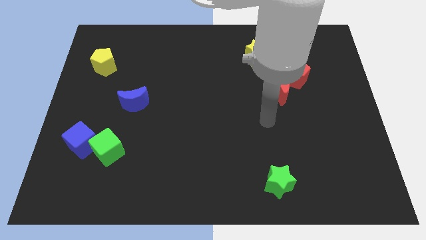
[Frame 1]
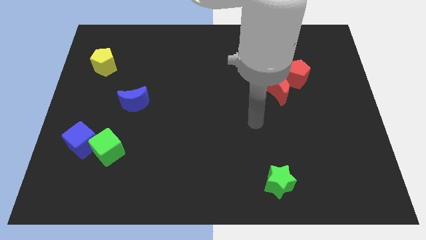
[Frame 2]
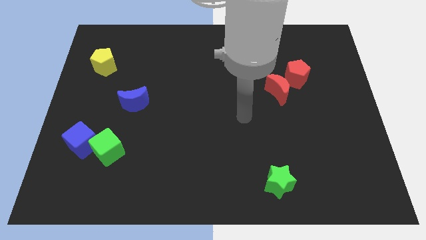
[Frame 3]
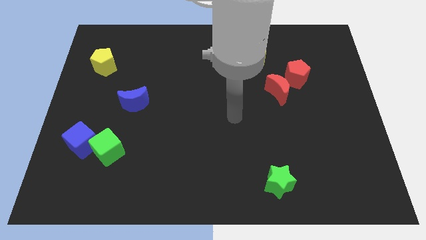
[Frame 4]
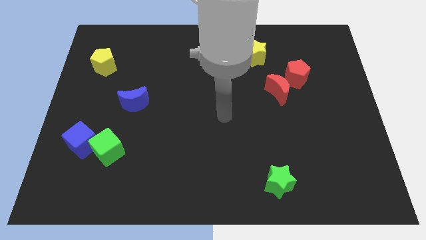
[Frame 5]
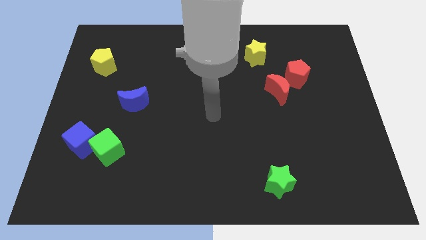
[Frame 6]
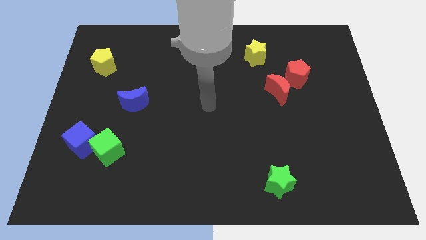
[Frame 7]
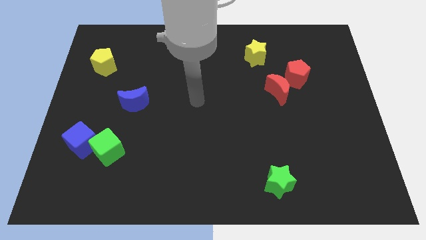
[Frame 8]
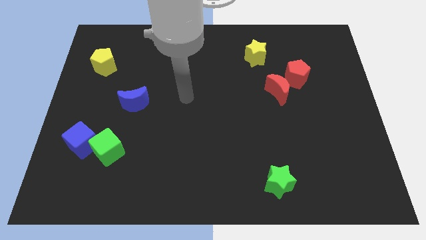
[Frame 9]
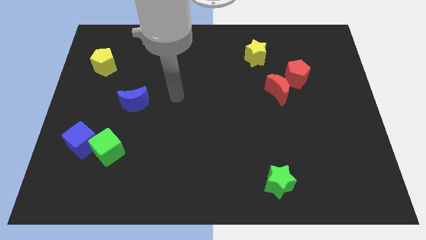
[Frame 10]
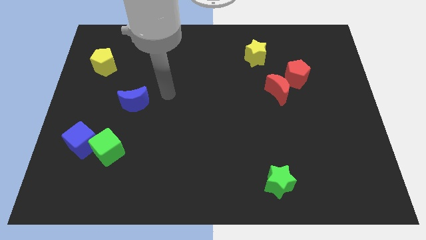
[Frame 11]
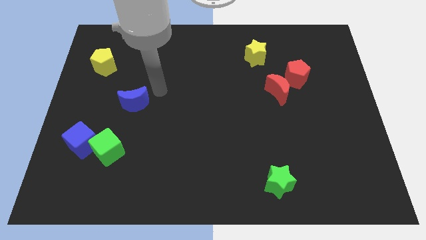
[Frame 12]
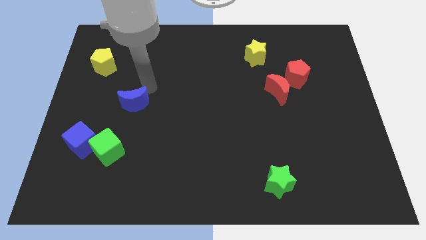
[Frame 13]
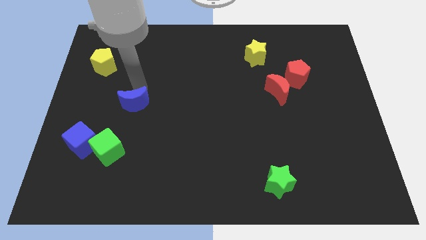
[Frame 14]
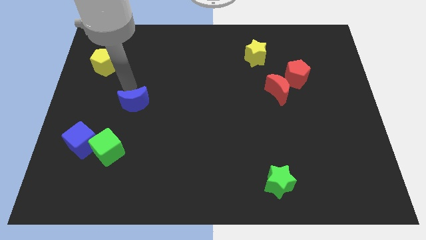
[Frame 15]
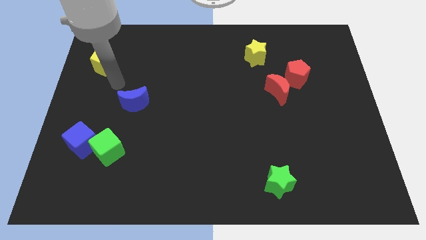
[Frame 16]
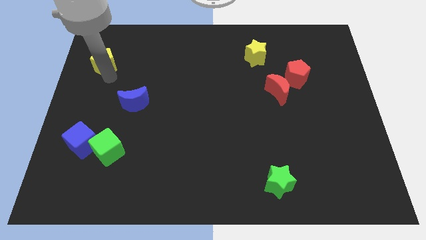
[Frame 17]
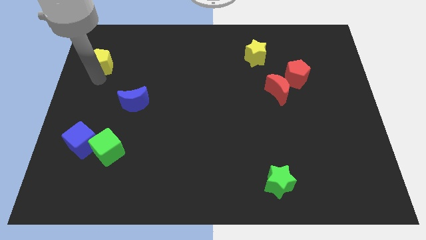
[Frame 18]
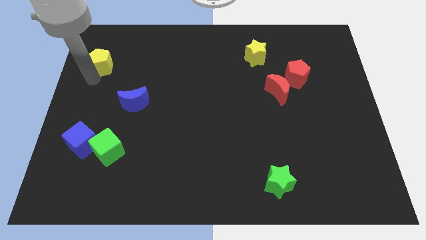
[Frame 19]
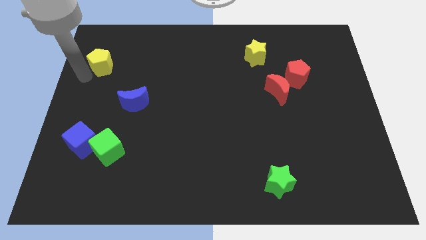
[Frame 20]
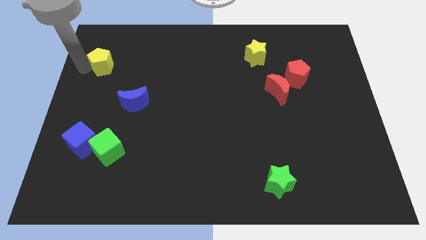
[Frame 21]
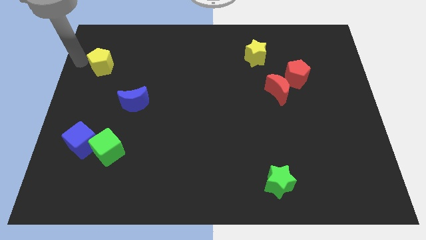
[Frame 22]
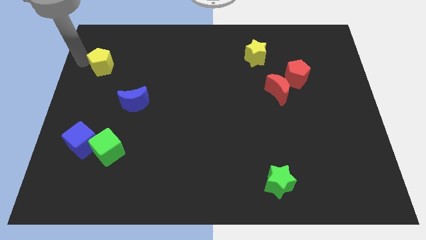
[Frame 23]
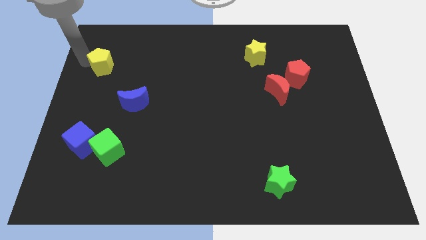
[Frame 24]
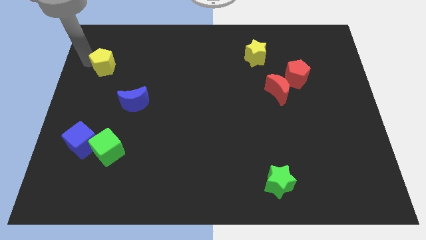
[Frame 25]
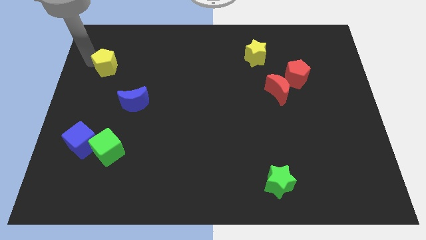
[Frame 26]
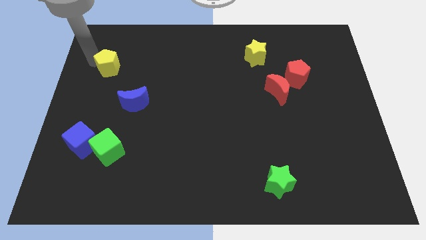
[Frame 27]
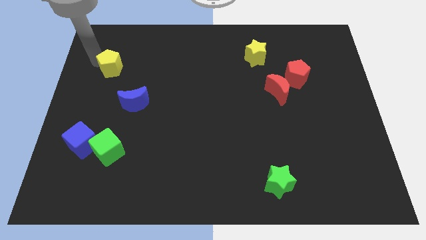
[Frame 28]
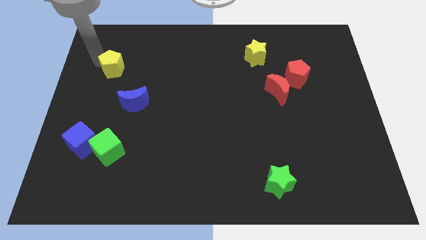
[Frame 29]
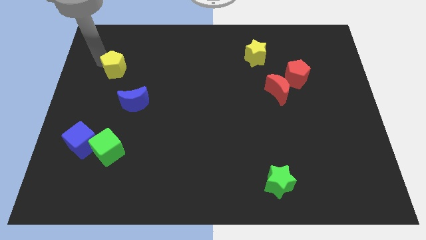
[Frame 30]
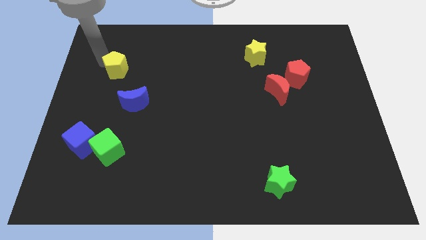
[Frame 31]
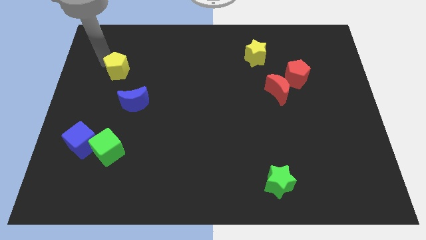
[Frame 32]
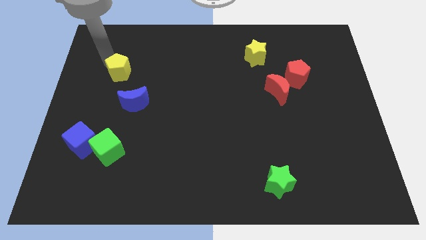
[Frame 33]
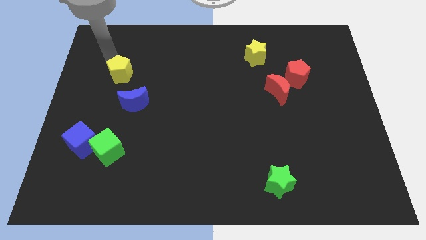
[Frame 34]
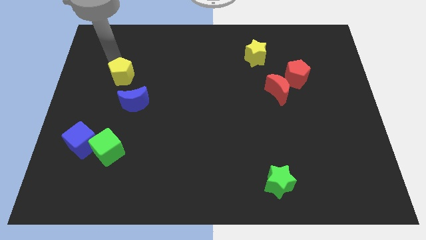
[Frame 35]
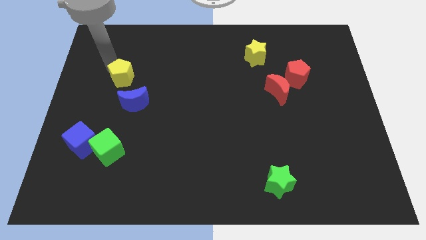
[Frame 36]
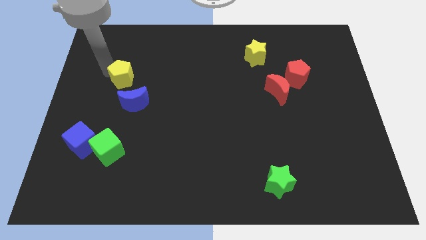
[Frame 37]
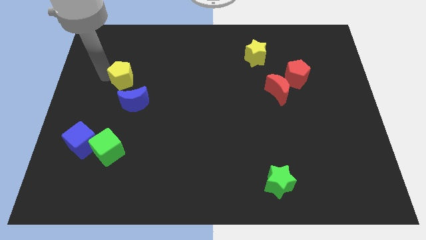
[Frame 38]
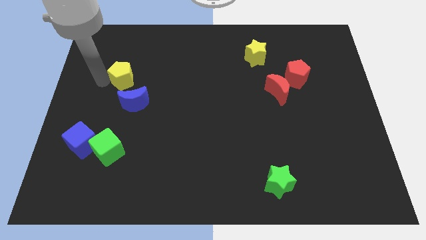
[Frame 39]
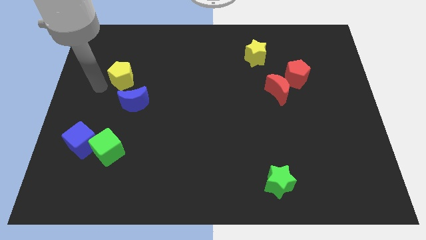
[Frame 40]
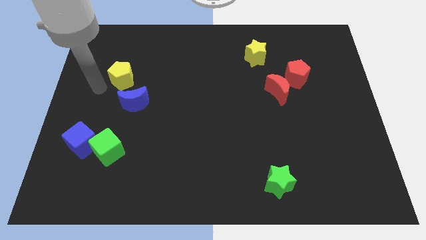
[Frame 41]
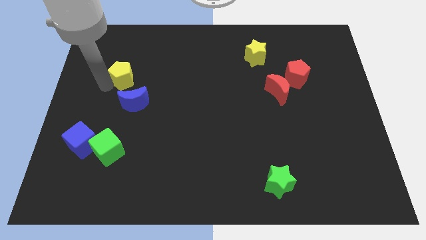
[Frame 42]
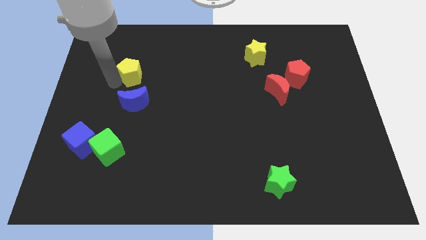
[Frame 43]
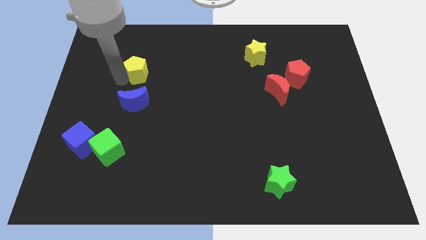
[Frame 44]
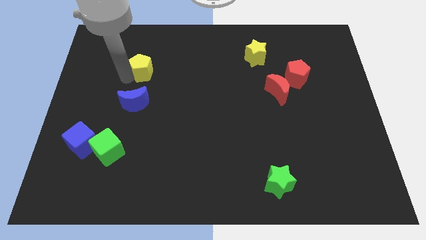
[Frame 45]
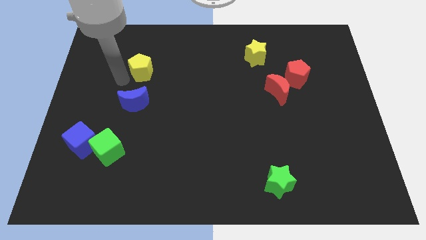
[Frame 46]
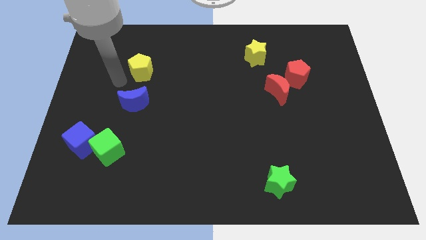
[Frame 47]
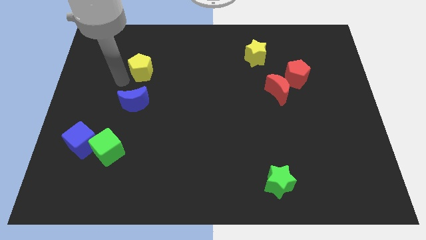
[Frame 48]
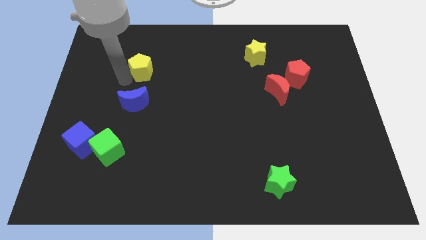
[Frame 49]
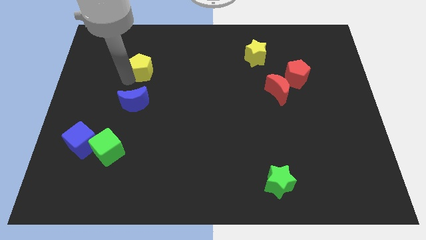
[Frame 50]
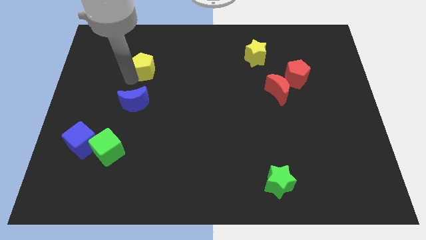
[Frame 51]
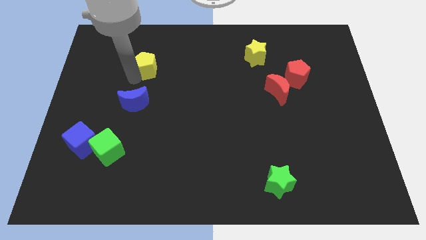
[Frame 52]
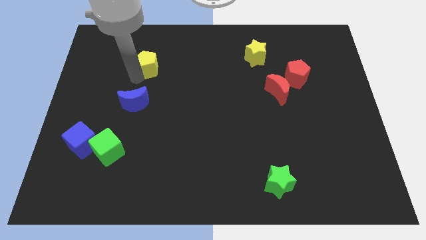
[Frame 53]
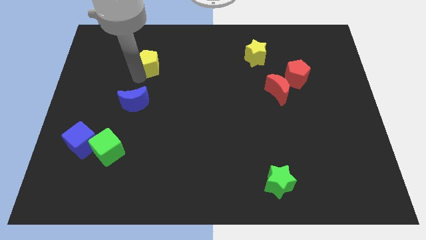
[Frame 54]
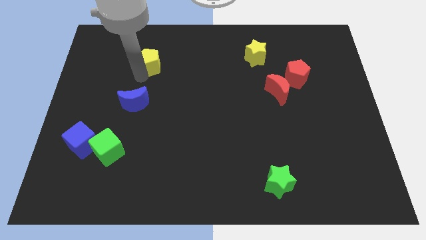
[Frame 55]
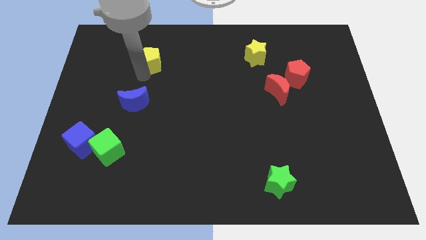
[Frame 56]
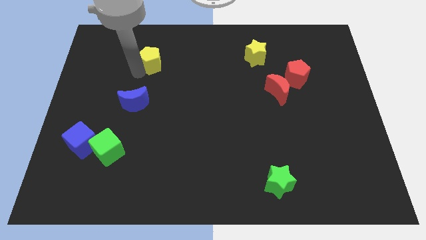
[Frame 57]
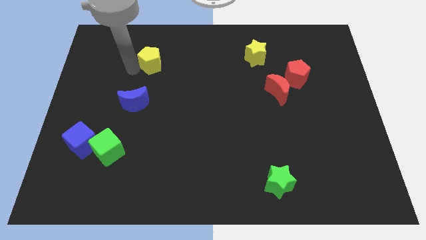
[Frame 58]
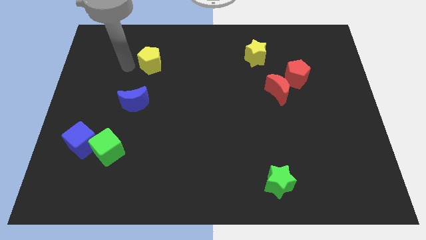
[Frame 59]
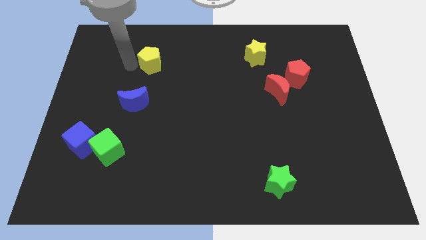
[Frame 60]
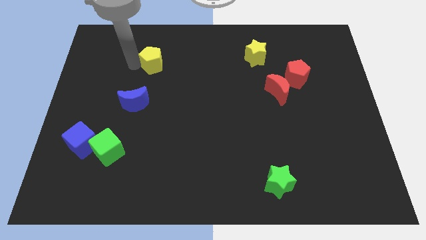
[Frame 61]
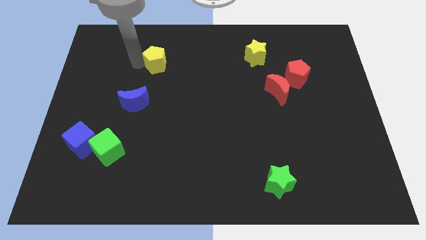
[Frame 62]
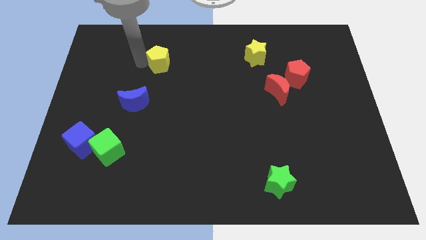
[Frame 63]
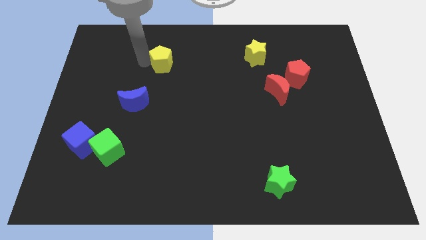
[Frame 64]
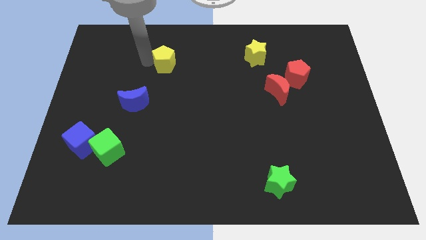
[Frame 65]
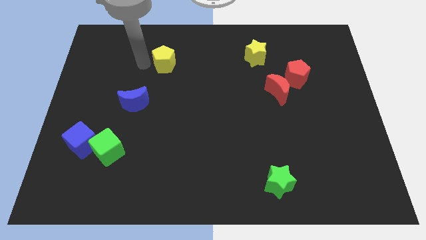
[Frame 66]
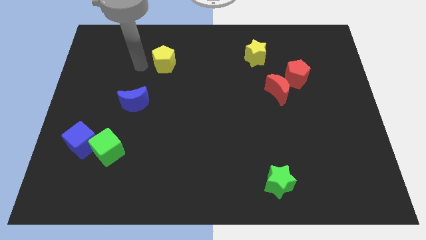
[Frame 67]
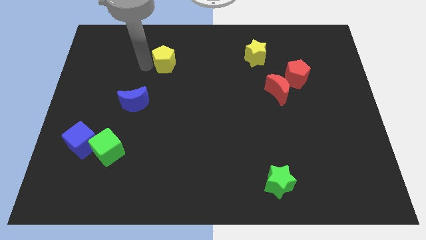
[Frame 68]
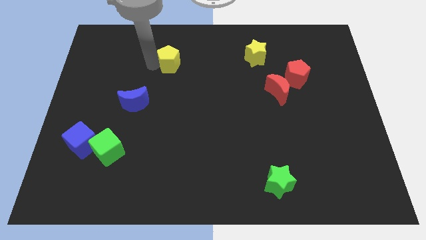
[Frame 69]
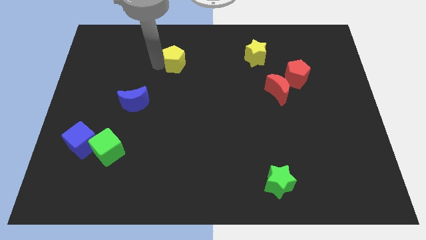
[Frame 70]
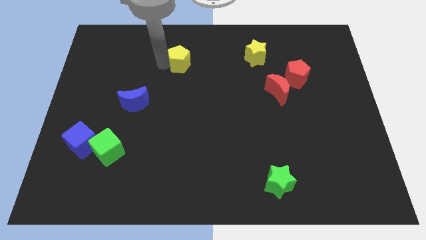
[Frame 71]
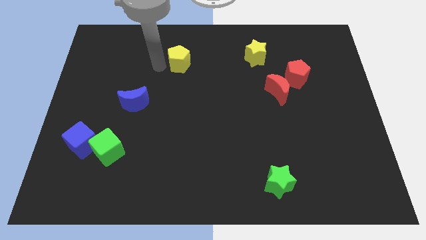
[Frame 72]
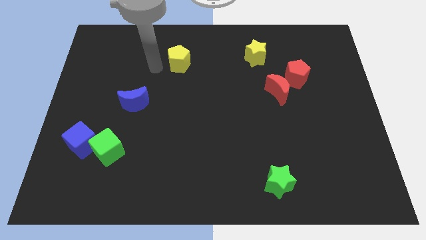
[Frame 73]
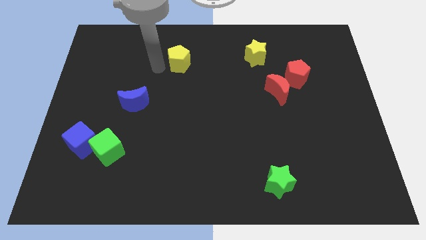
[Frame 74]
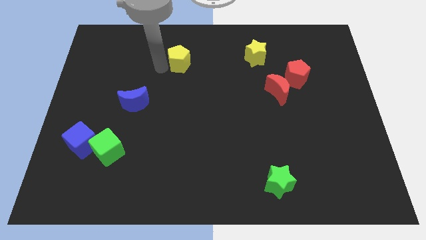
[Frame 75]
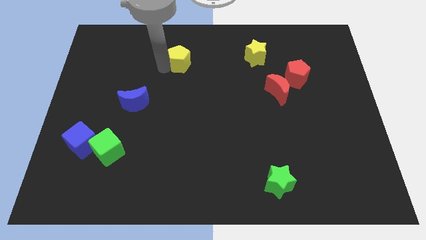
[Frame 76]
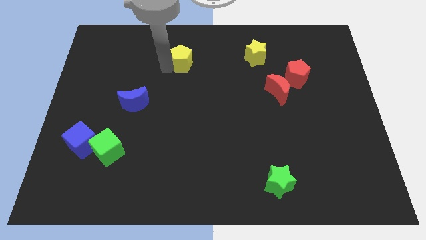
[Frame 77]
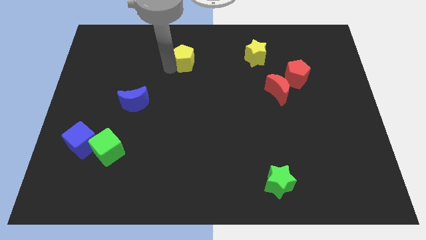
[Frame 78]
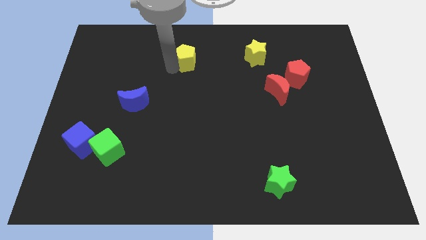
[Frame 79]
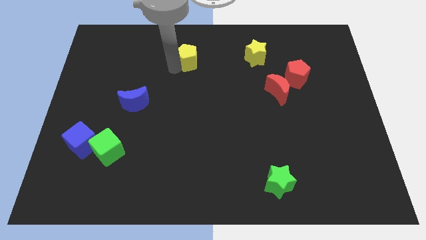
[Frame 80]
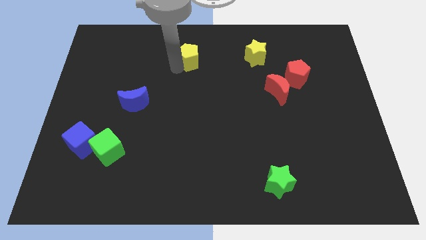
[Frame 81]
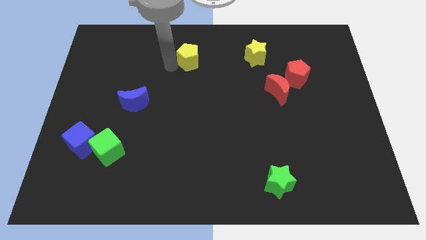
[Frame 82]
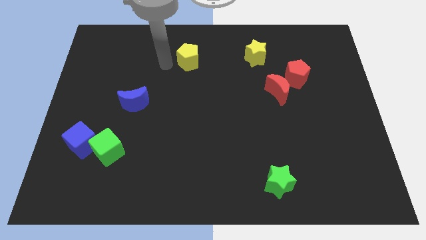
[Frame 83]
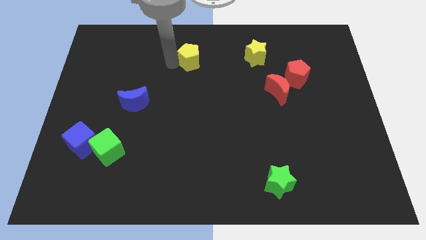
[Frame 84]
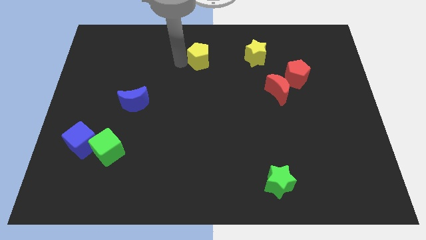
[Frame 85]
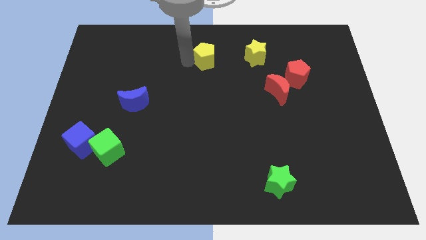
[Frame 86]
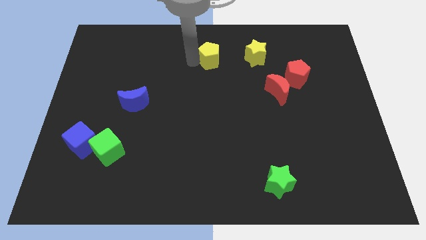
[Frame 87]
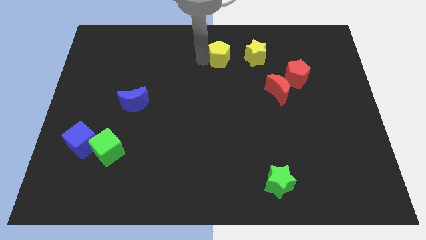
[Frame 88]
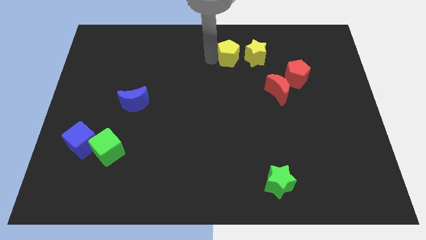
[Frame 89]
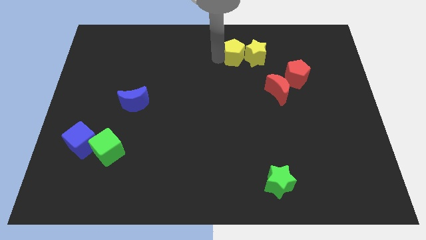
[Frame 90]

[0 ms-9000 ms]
move the yellow pentagon close to the yellow star
